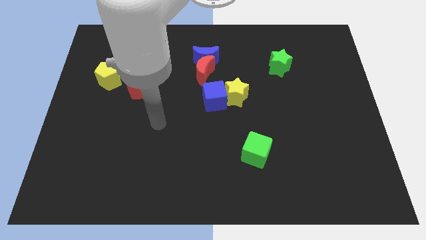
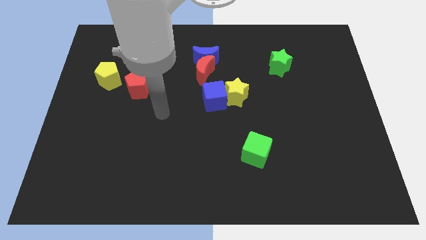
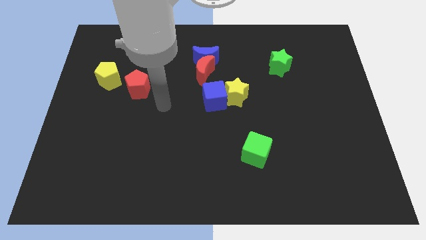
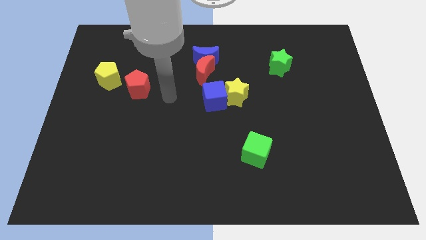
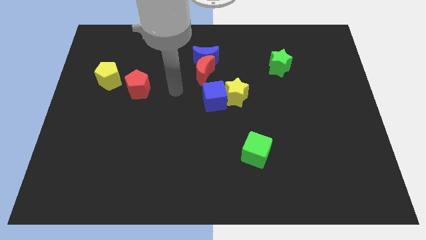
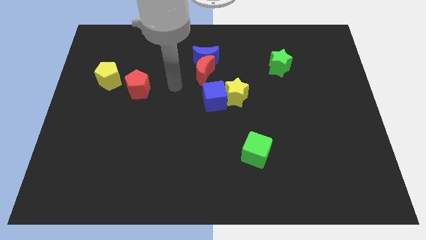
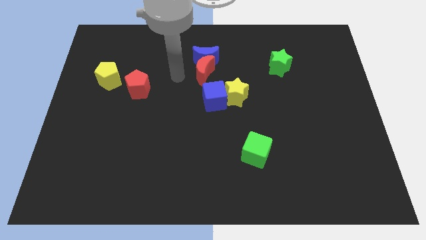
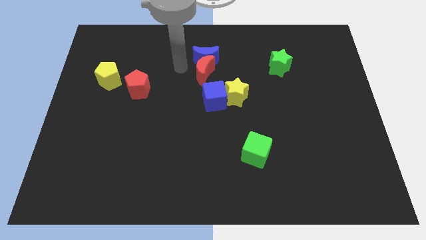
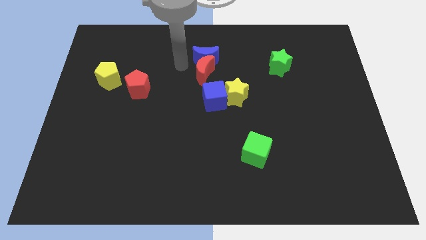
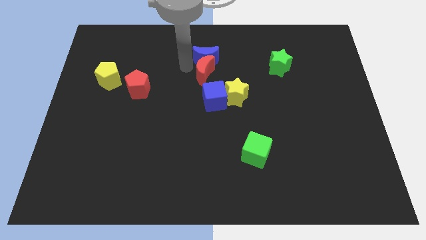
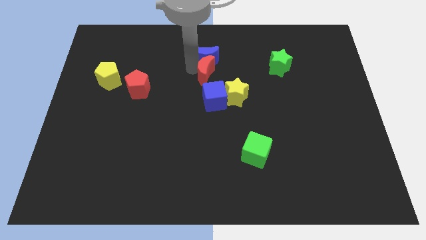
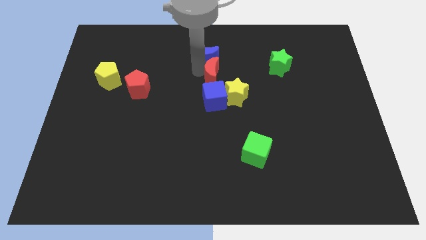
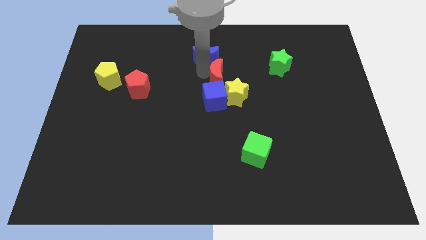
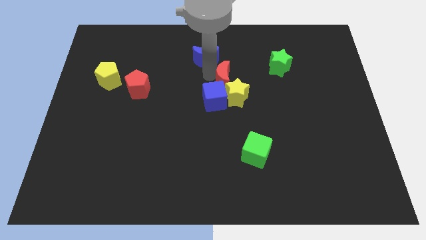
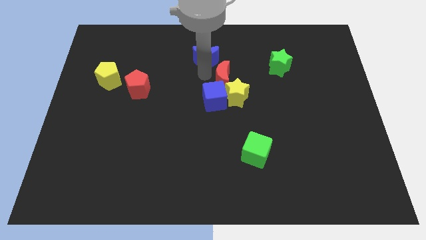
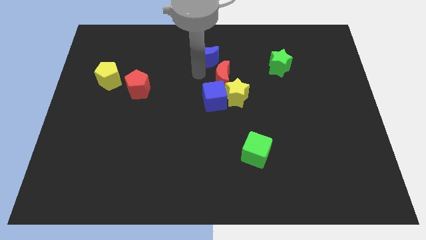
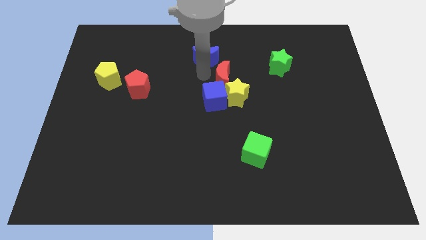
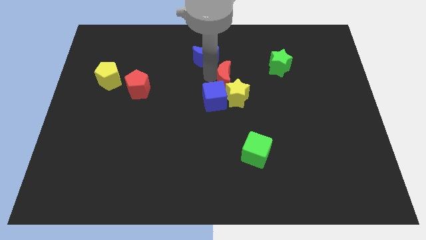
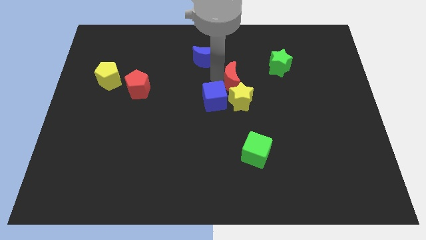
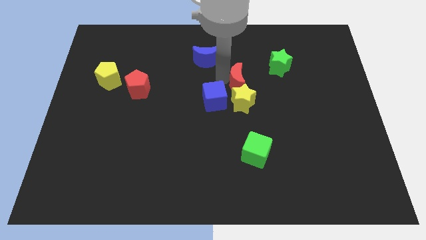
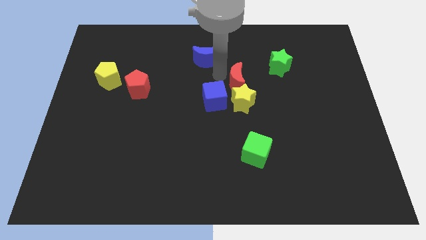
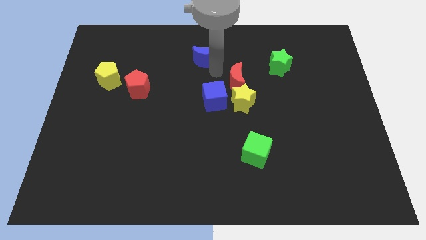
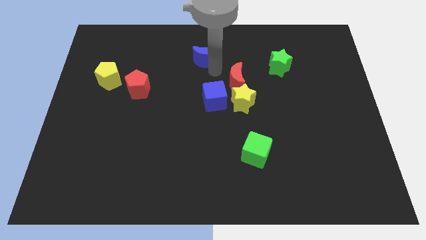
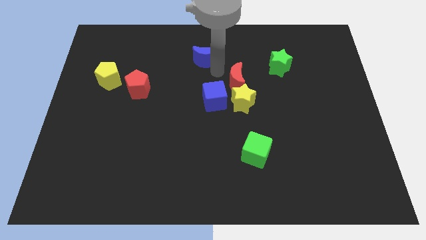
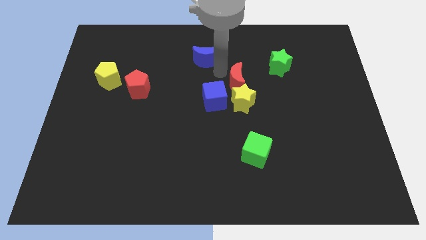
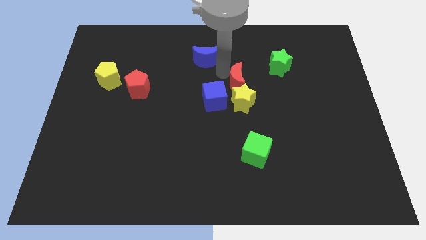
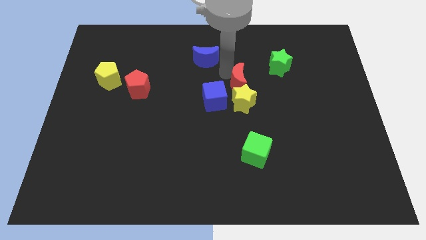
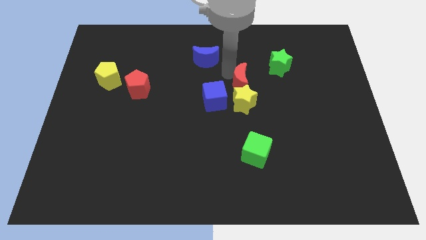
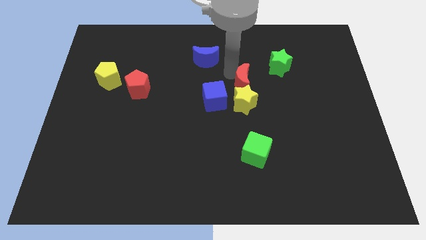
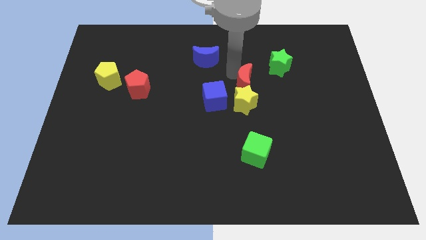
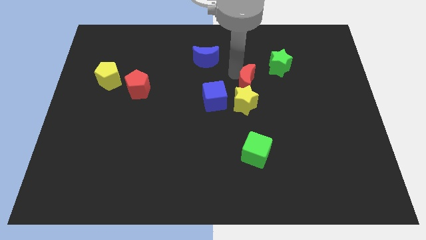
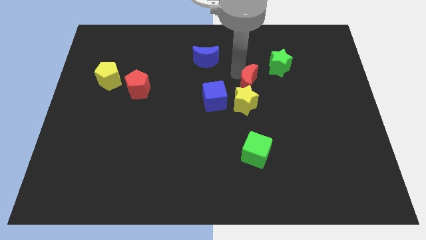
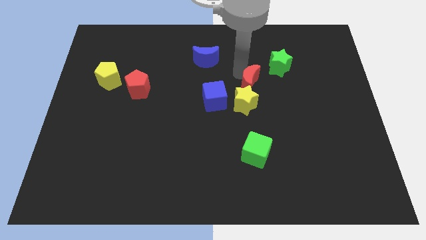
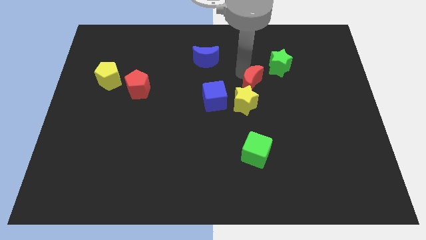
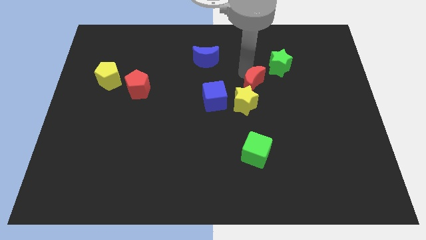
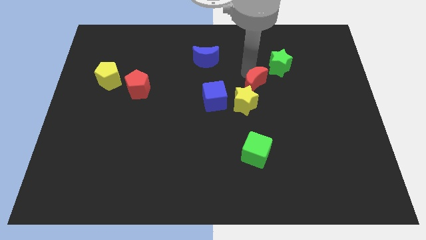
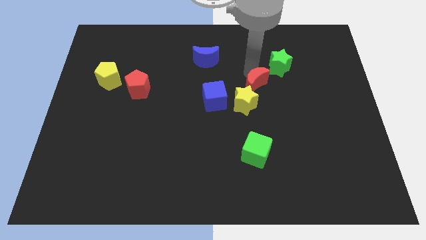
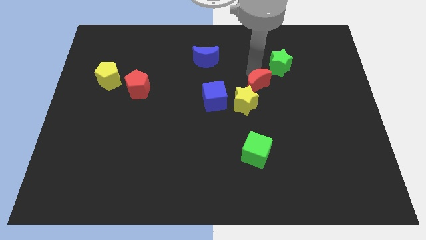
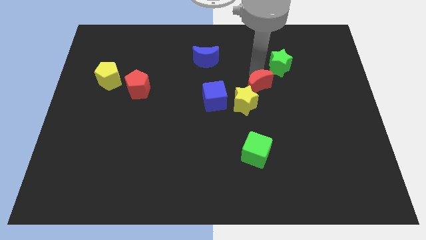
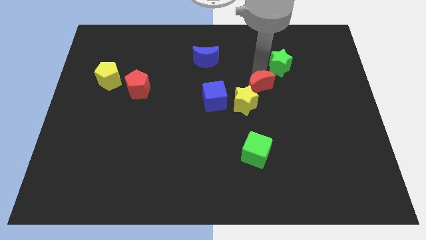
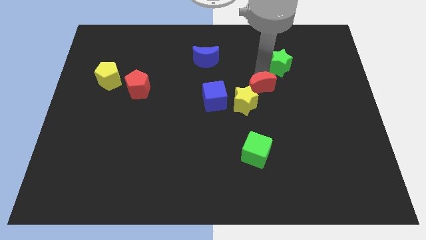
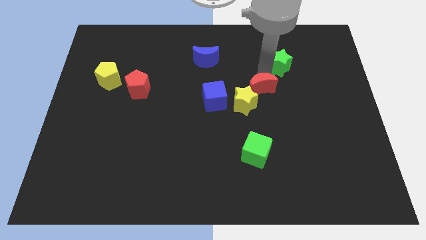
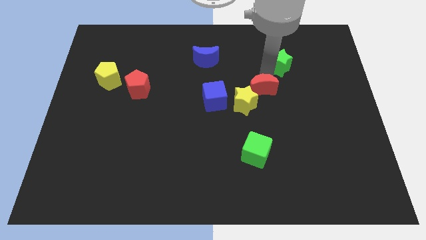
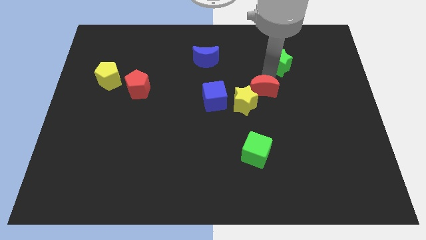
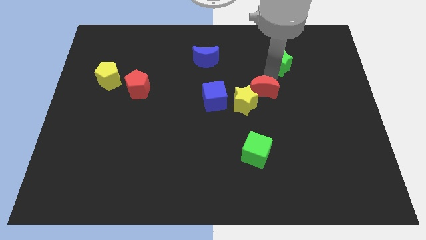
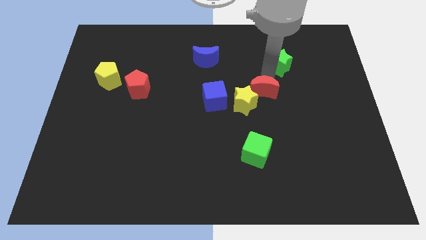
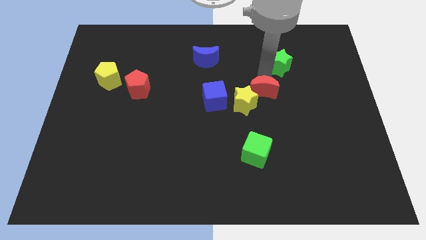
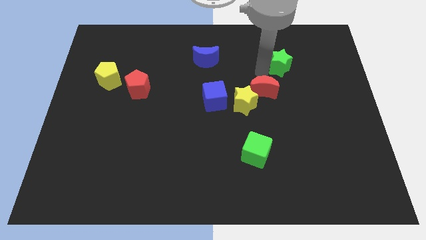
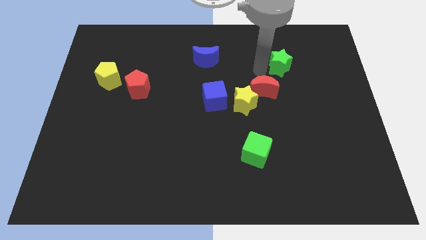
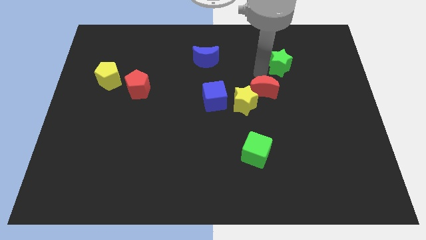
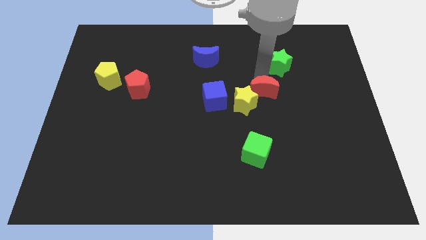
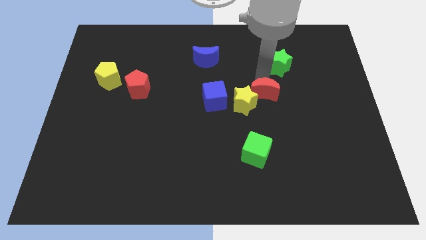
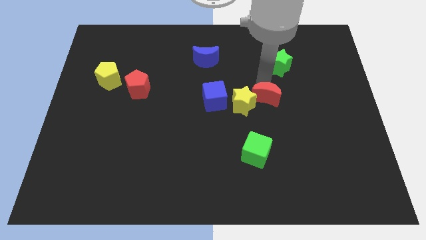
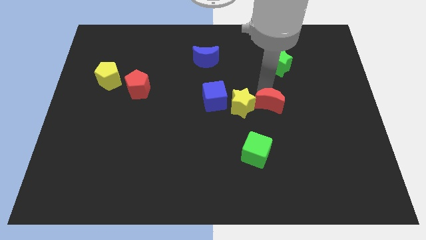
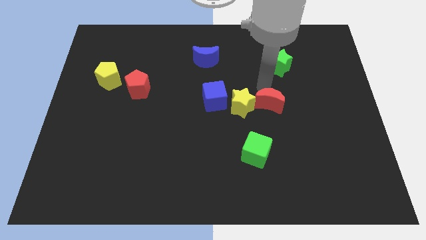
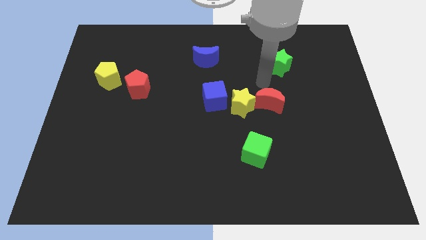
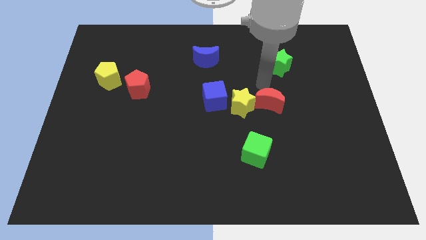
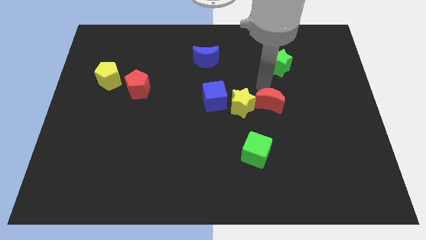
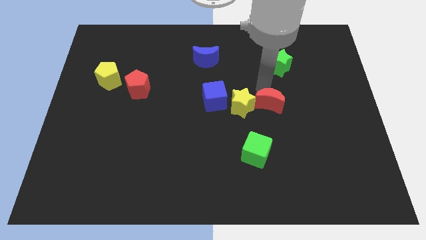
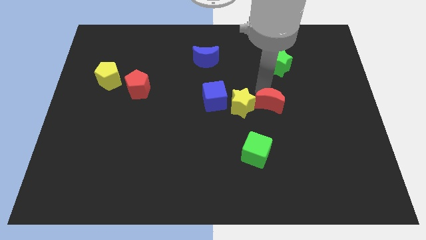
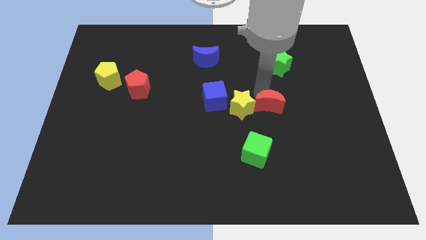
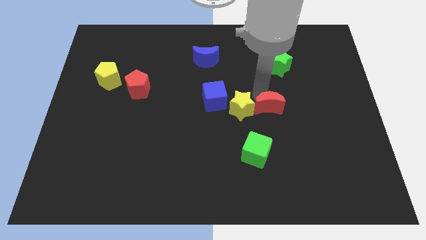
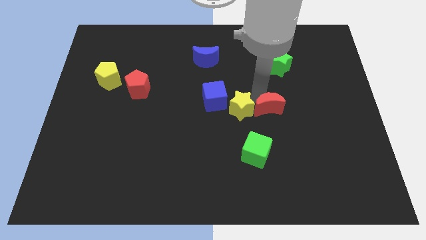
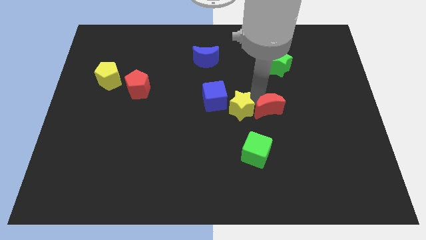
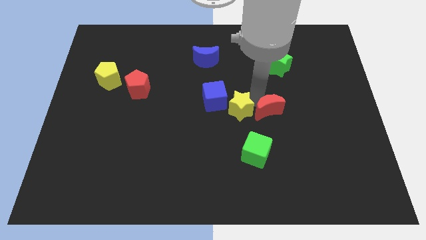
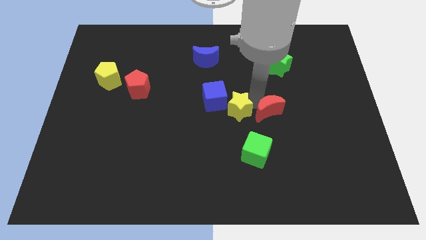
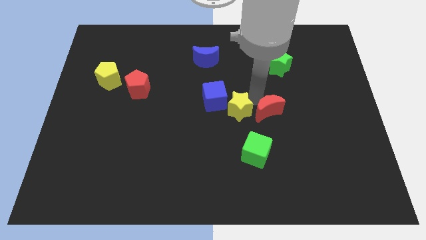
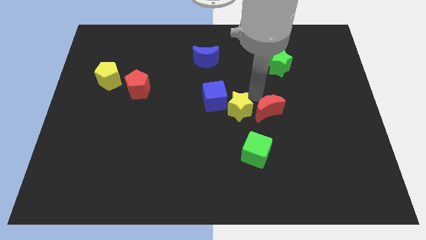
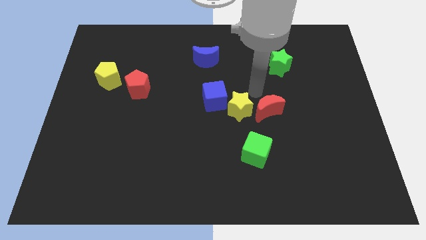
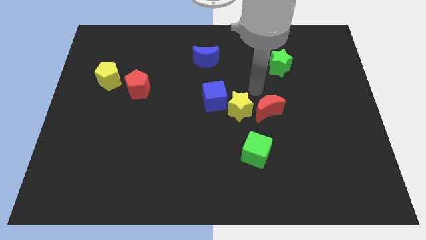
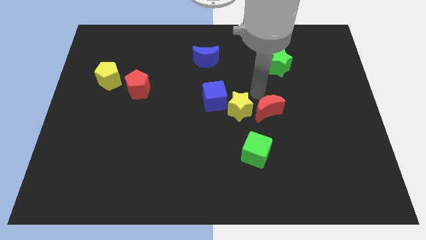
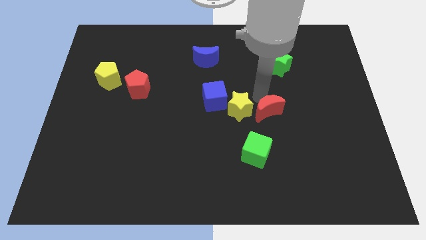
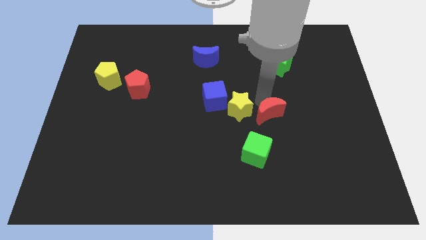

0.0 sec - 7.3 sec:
move the red moon diagonally down and right

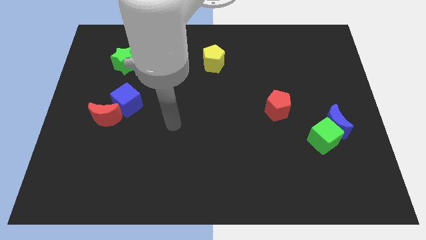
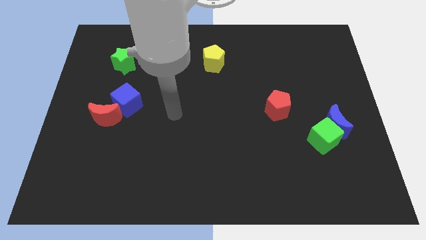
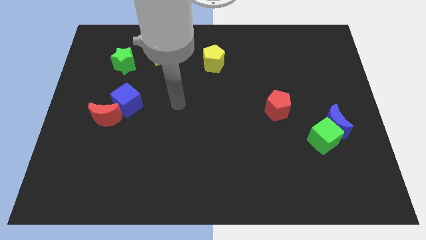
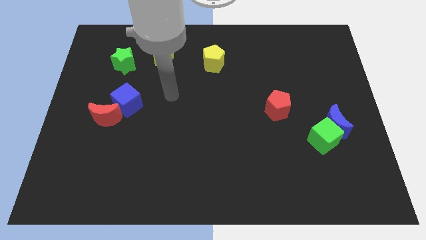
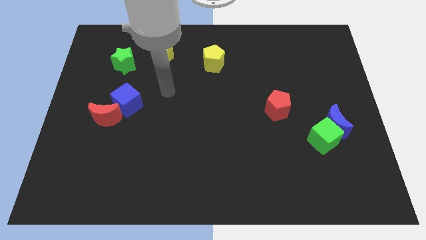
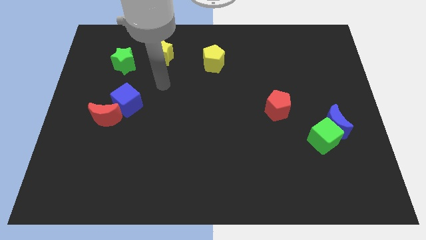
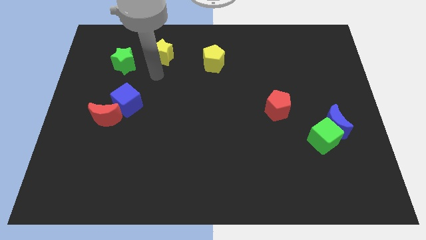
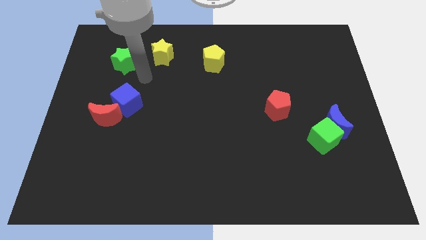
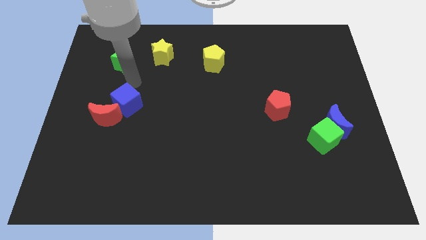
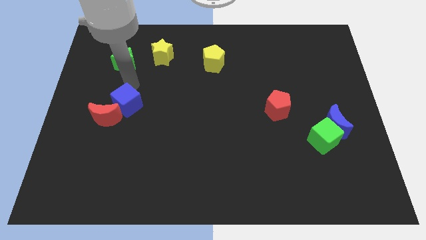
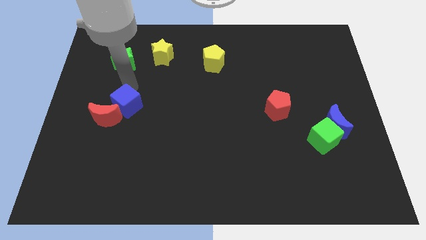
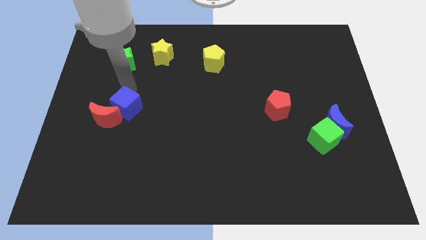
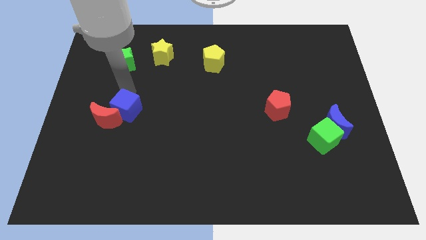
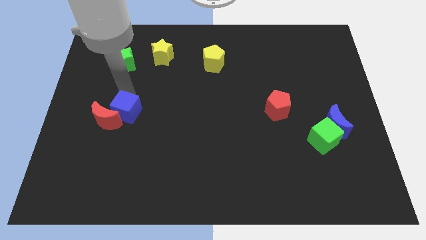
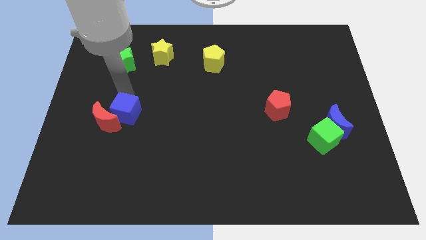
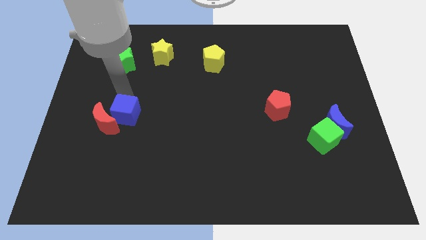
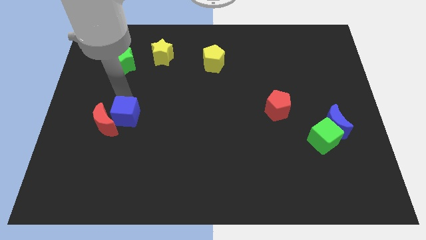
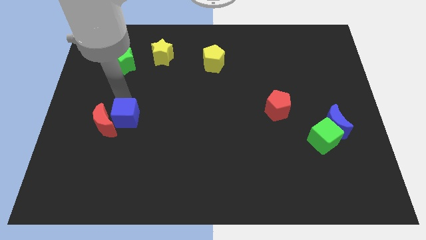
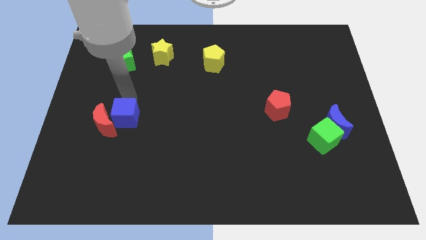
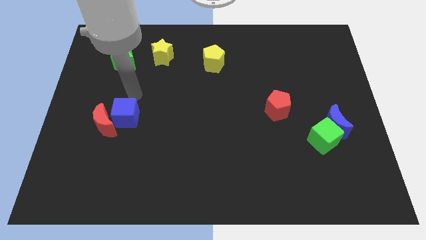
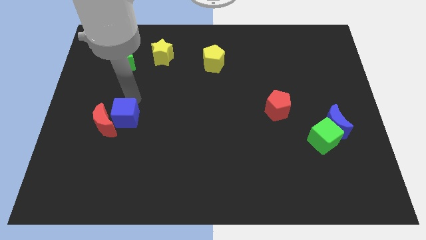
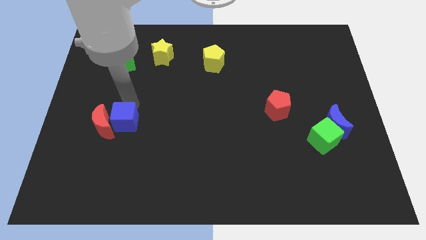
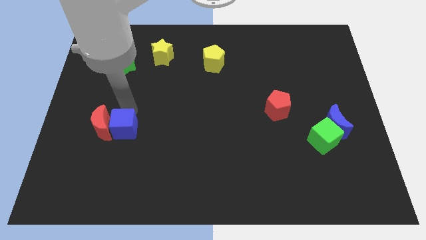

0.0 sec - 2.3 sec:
move the blue cube downwards a little bit
